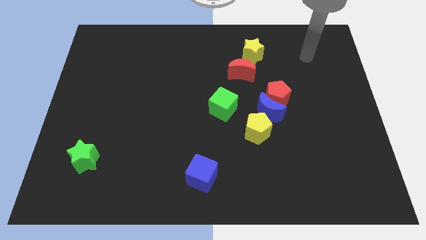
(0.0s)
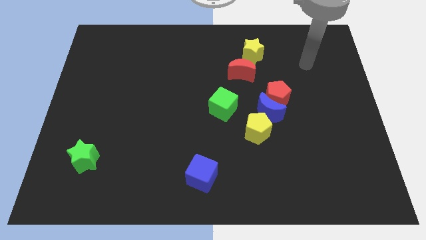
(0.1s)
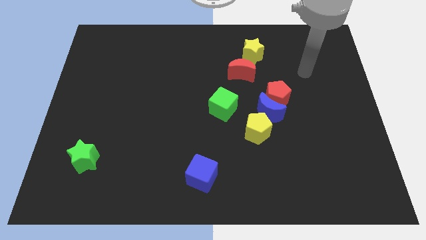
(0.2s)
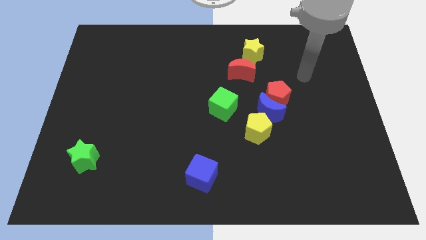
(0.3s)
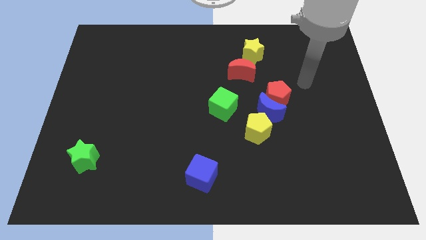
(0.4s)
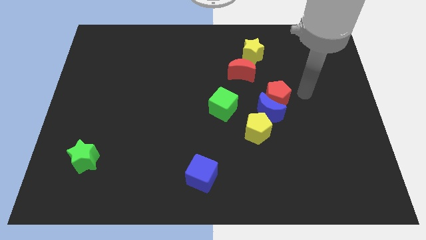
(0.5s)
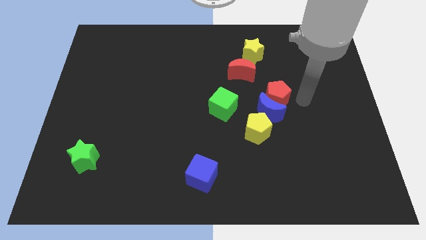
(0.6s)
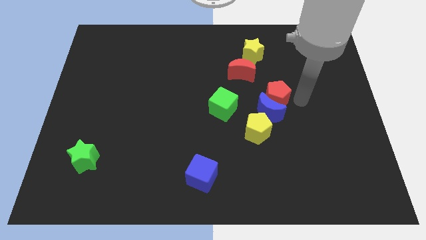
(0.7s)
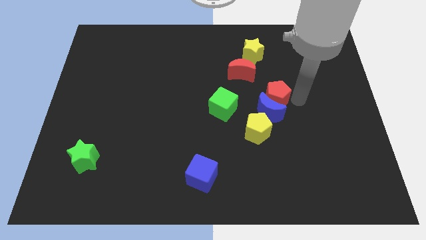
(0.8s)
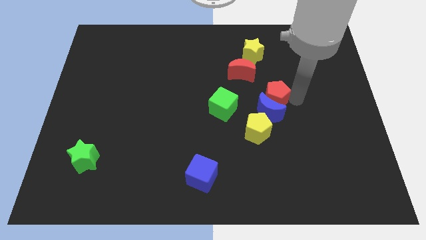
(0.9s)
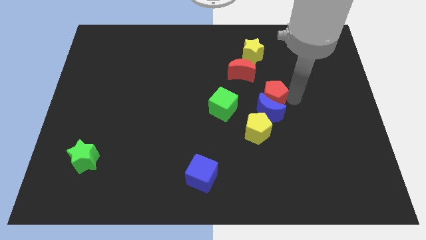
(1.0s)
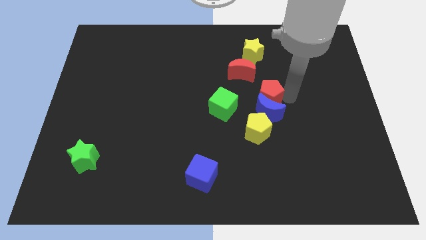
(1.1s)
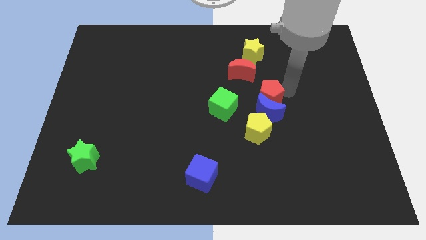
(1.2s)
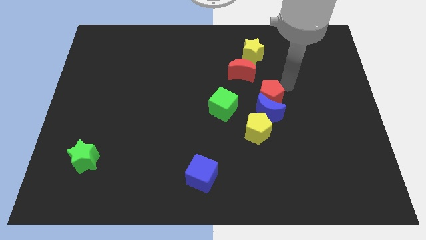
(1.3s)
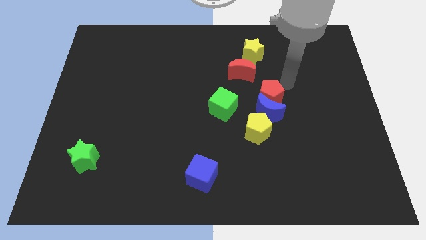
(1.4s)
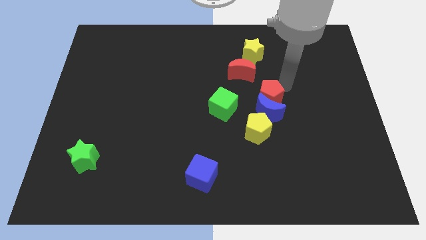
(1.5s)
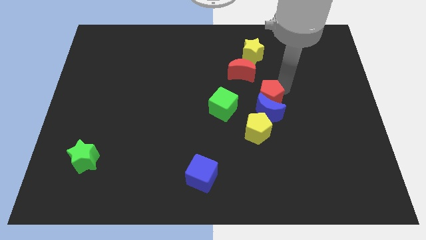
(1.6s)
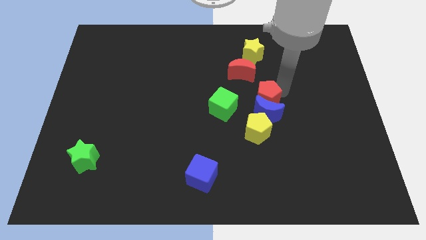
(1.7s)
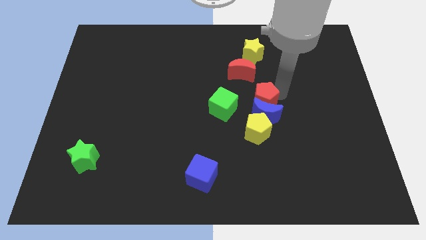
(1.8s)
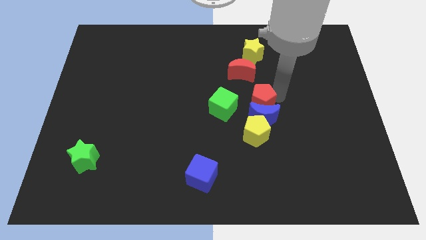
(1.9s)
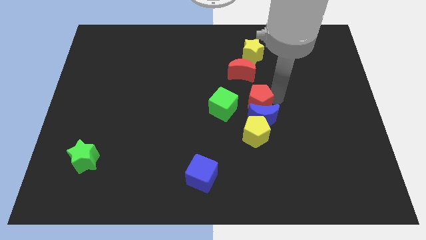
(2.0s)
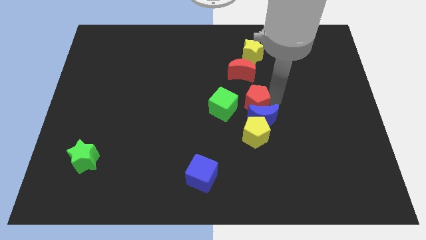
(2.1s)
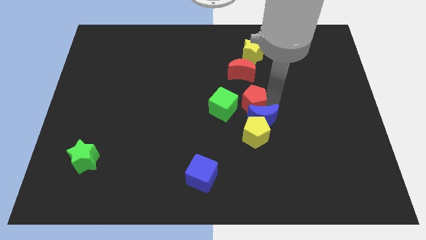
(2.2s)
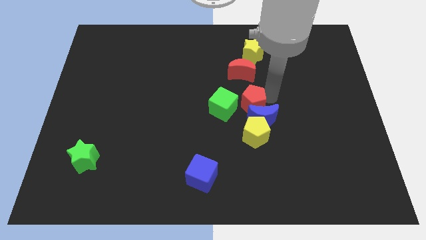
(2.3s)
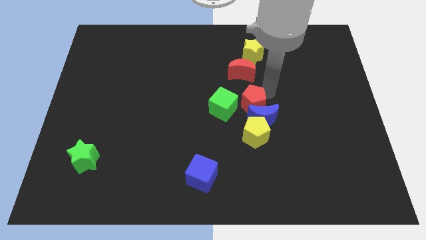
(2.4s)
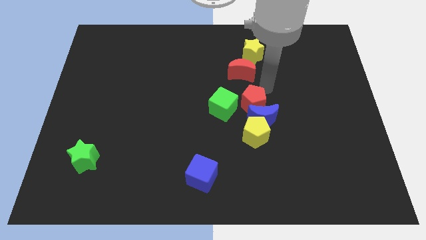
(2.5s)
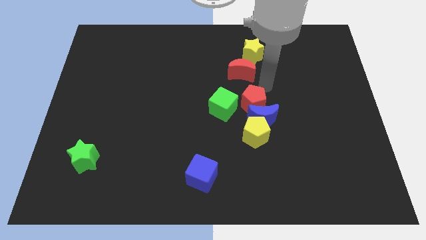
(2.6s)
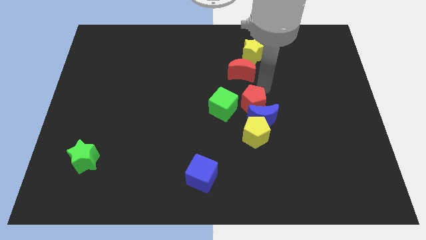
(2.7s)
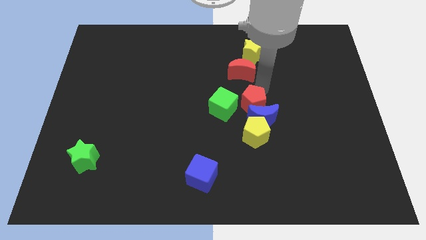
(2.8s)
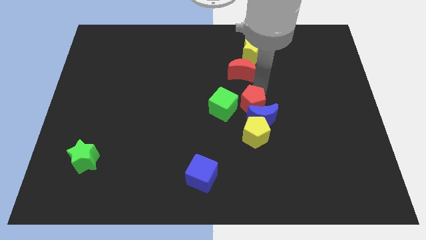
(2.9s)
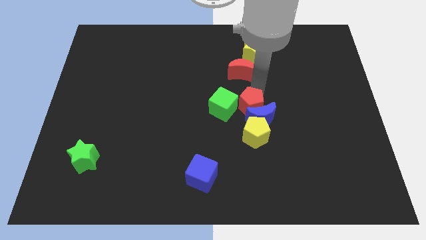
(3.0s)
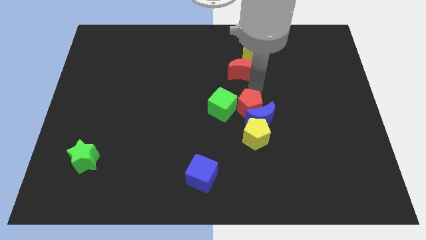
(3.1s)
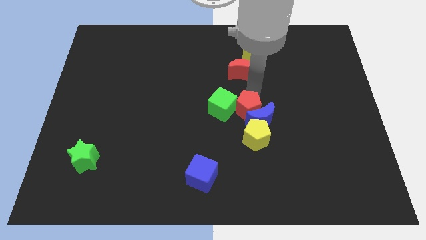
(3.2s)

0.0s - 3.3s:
slightly move the red pentagon downwards and left diagonally

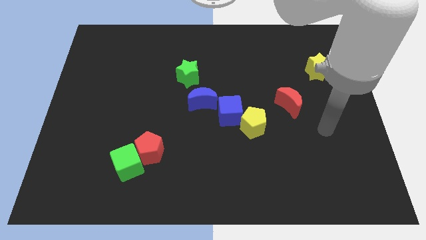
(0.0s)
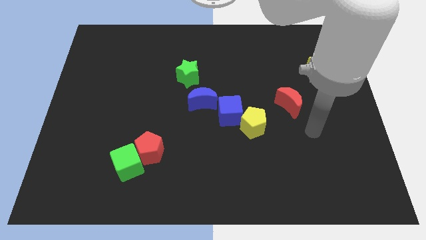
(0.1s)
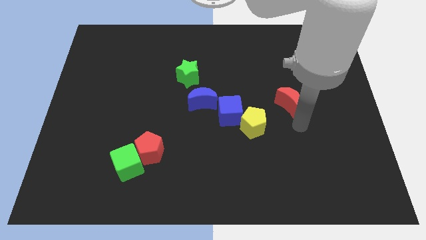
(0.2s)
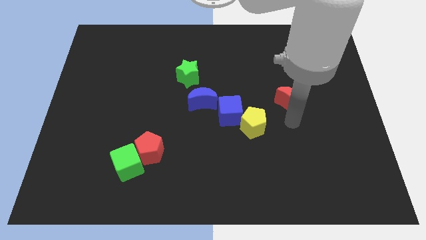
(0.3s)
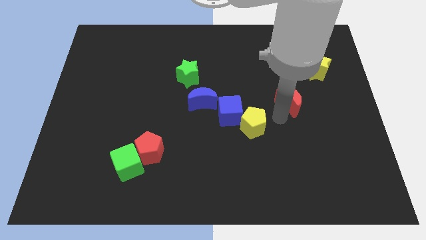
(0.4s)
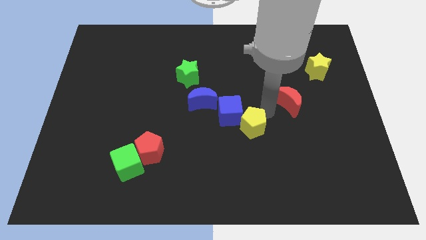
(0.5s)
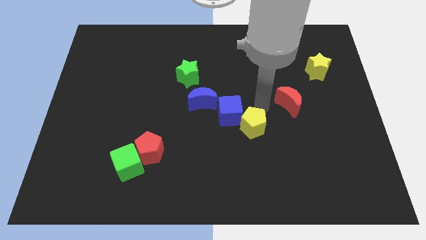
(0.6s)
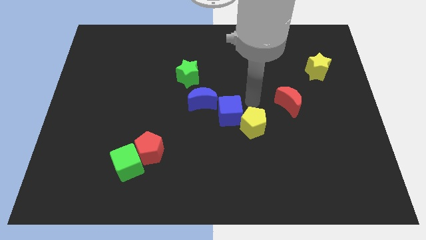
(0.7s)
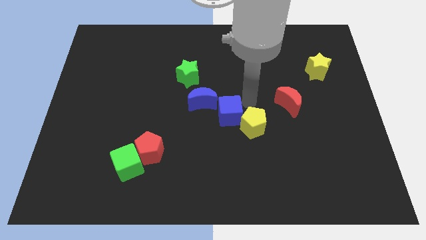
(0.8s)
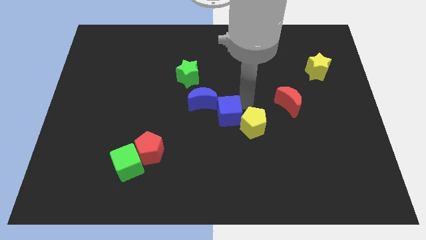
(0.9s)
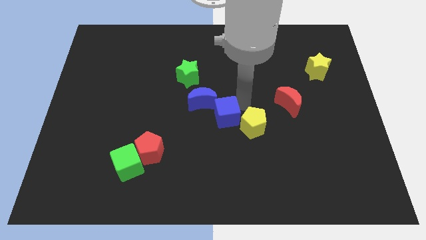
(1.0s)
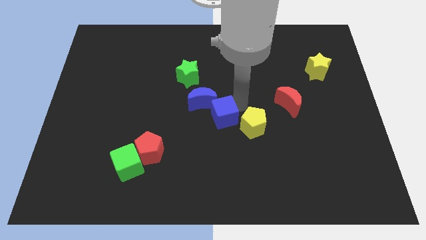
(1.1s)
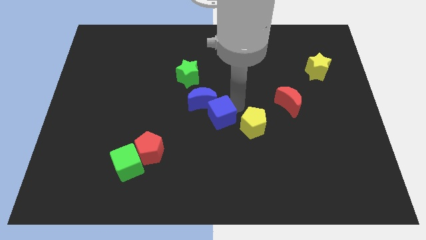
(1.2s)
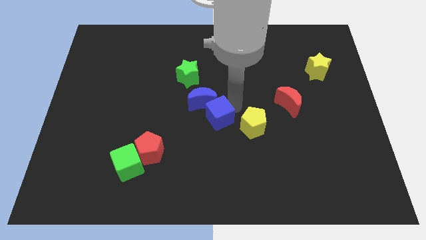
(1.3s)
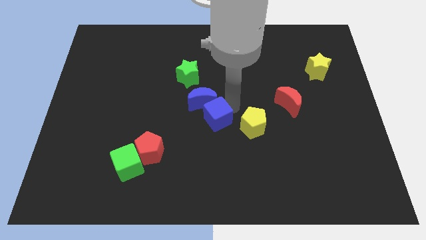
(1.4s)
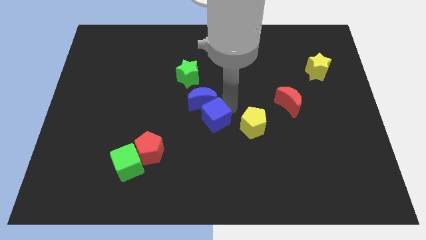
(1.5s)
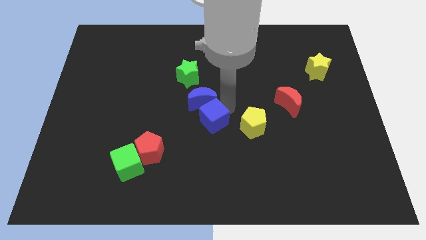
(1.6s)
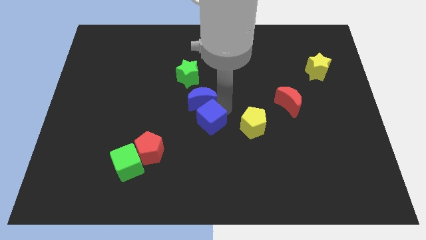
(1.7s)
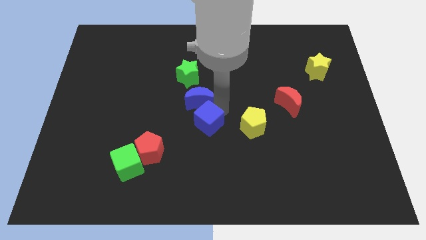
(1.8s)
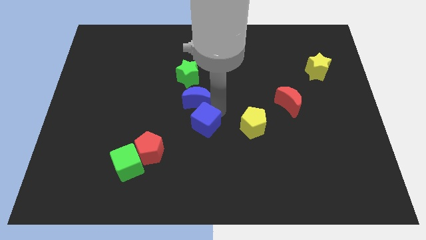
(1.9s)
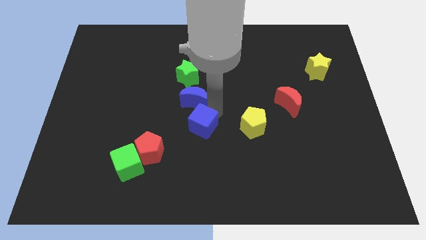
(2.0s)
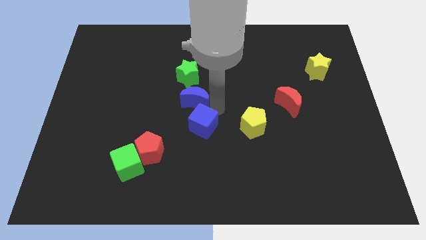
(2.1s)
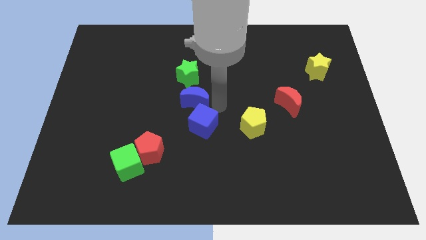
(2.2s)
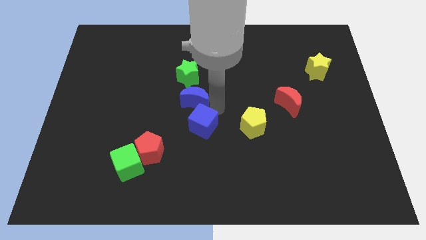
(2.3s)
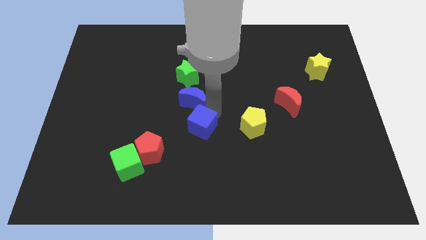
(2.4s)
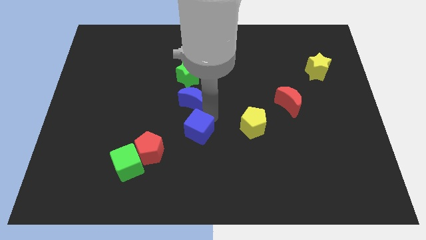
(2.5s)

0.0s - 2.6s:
slightly slide the blue cube downwards and to the left

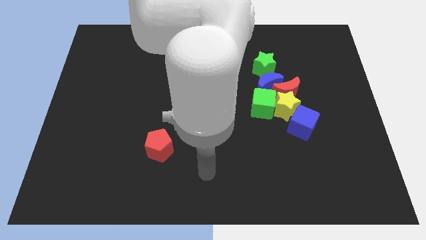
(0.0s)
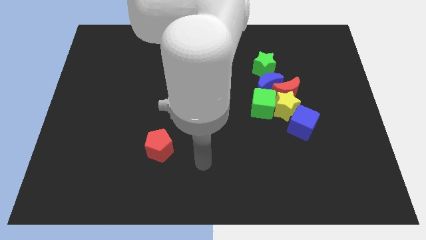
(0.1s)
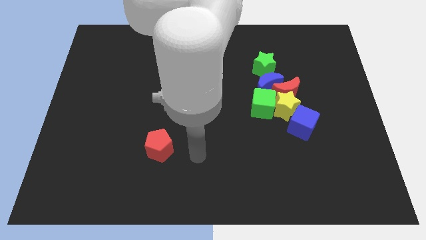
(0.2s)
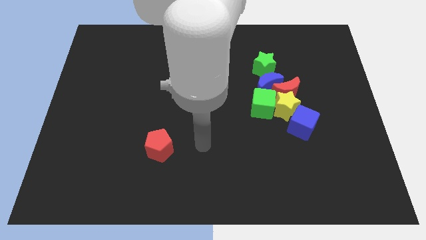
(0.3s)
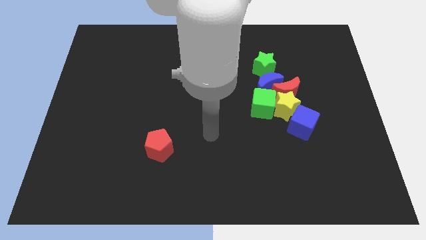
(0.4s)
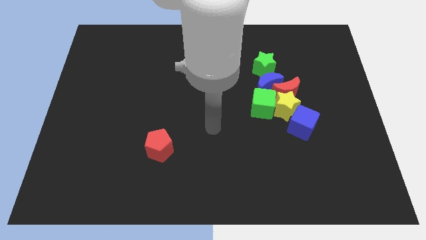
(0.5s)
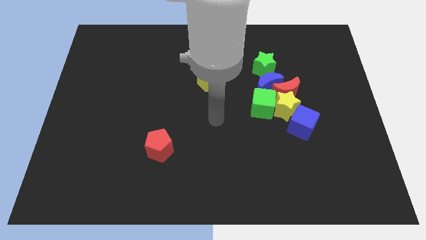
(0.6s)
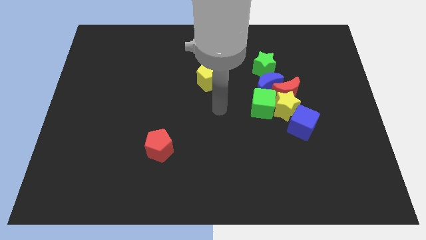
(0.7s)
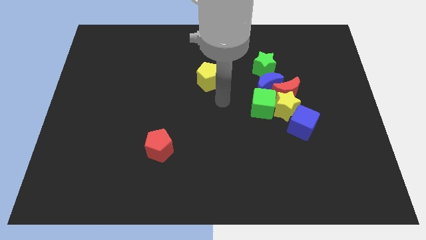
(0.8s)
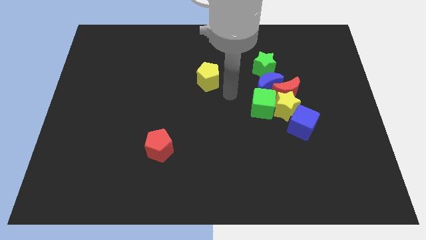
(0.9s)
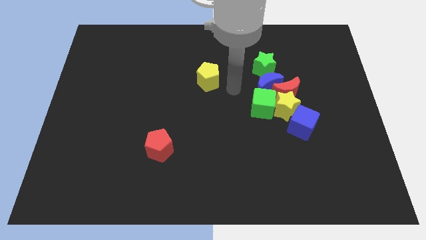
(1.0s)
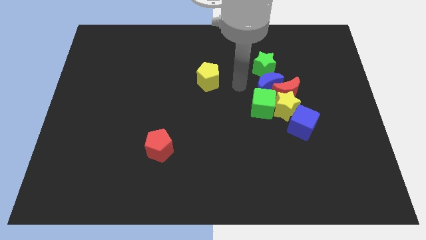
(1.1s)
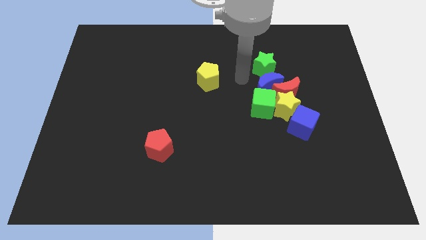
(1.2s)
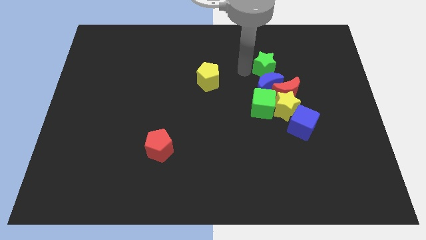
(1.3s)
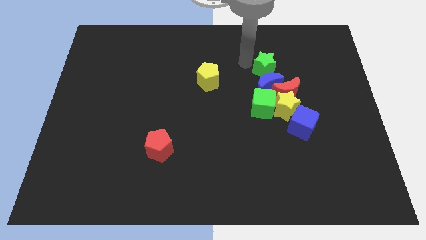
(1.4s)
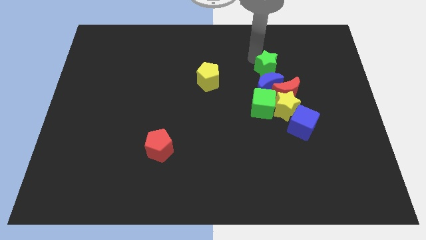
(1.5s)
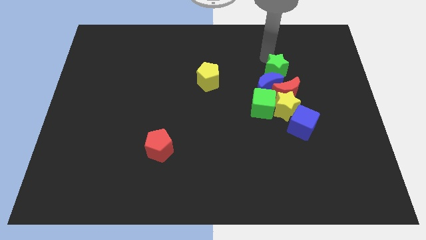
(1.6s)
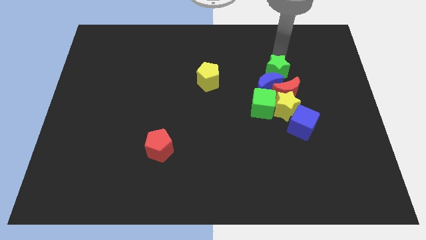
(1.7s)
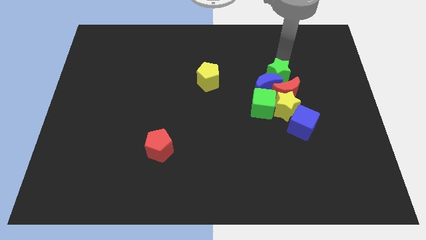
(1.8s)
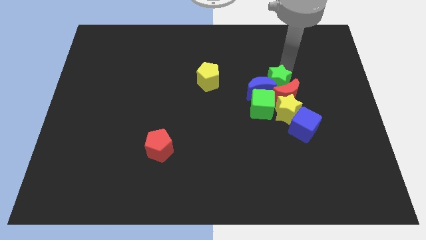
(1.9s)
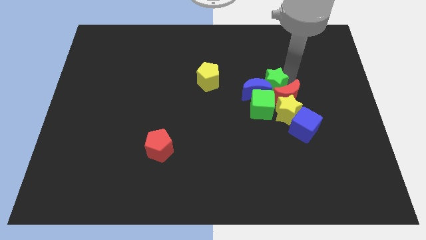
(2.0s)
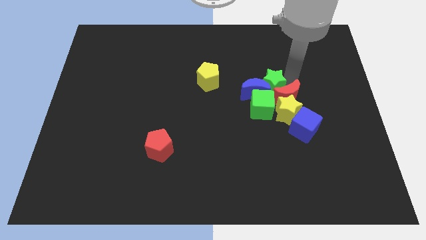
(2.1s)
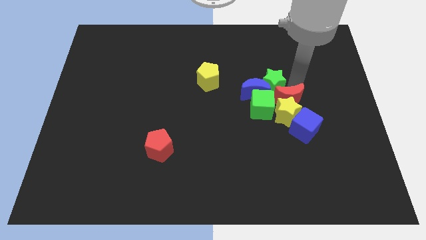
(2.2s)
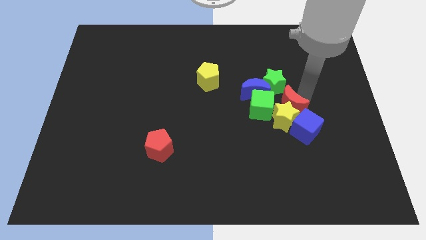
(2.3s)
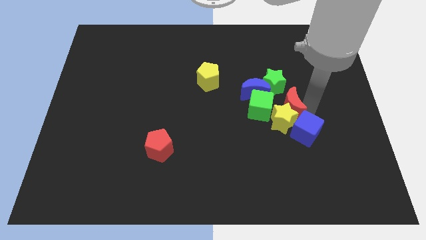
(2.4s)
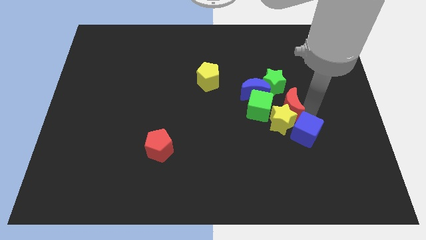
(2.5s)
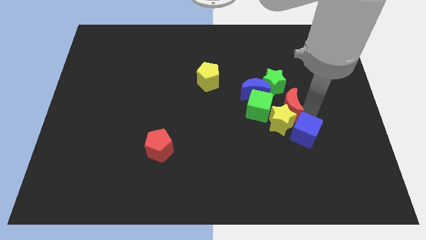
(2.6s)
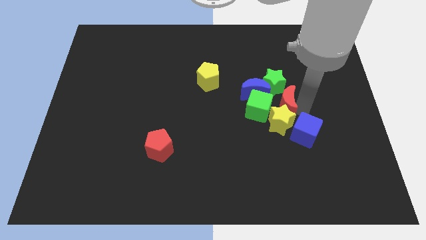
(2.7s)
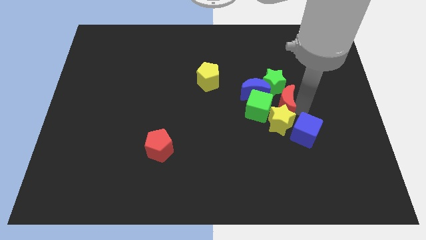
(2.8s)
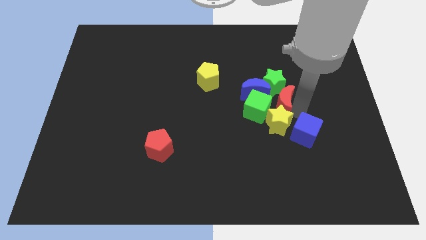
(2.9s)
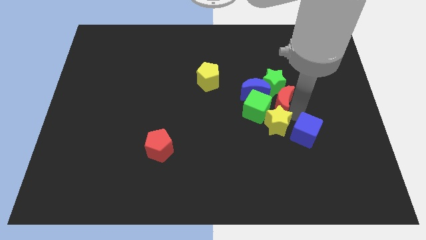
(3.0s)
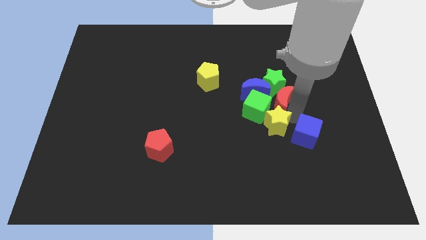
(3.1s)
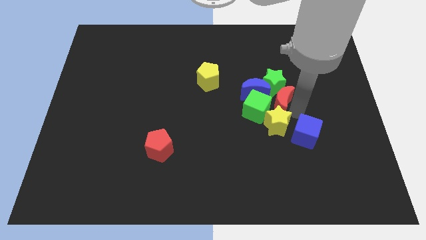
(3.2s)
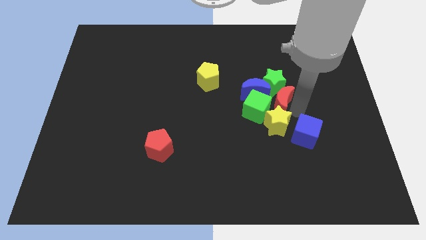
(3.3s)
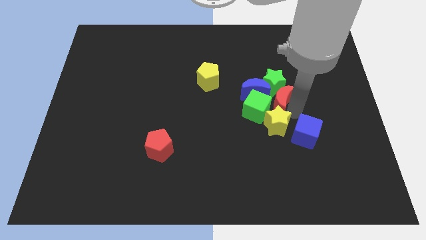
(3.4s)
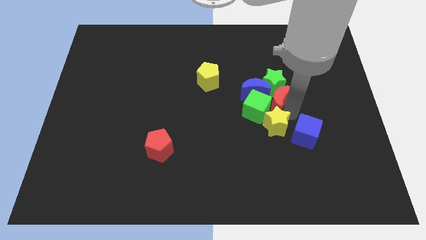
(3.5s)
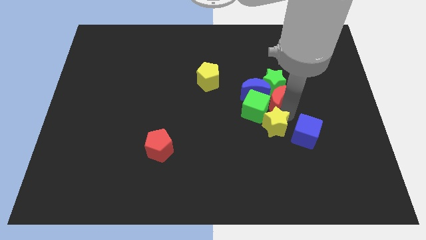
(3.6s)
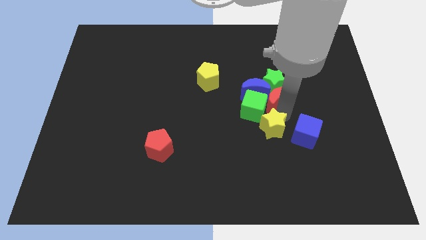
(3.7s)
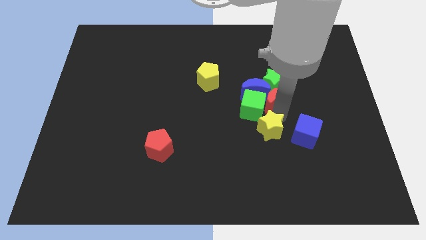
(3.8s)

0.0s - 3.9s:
slightly slide the yellow star downwards and to the left diagonally
